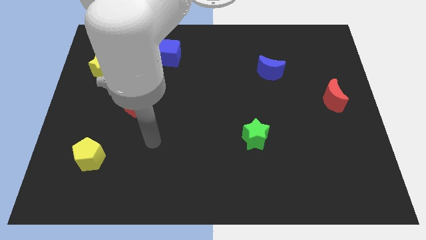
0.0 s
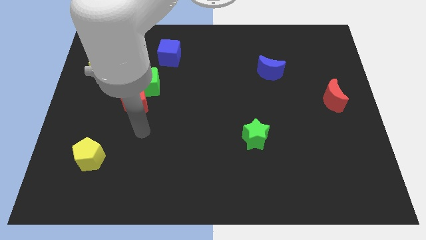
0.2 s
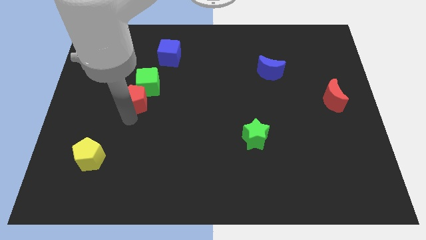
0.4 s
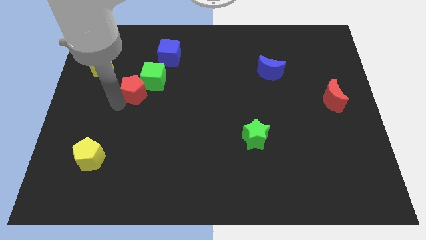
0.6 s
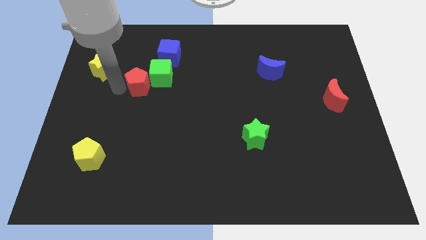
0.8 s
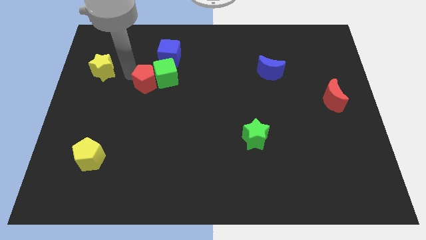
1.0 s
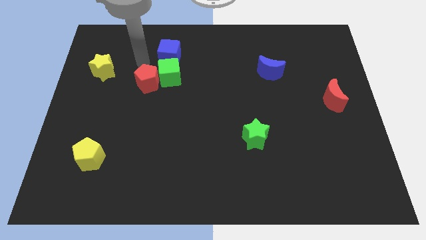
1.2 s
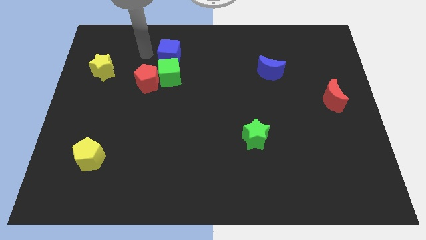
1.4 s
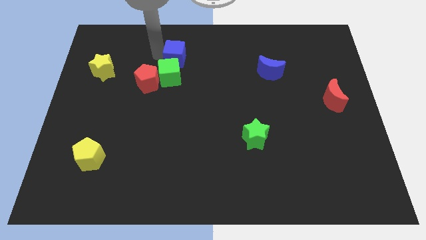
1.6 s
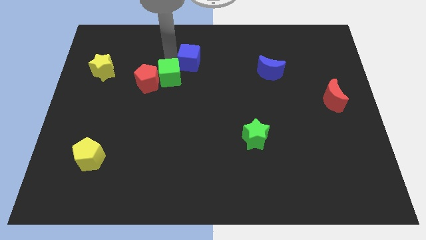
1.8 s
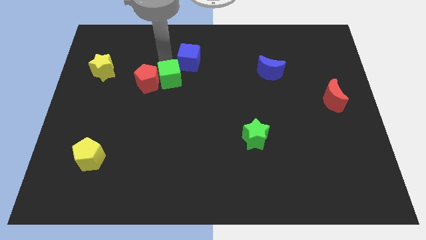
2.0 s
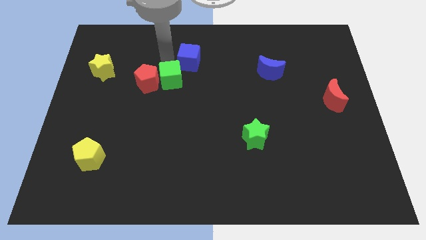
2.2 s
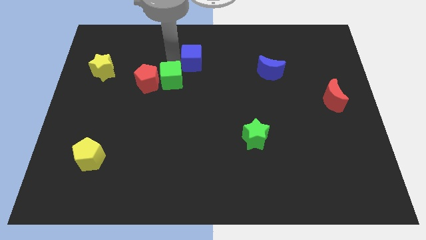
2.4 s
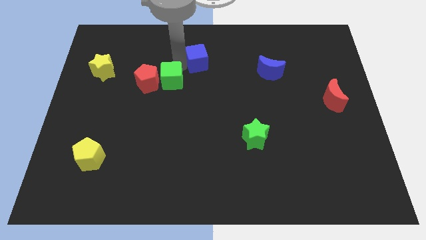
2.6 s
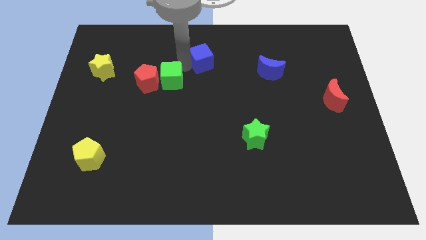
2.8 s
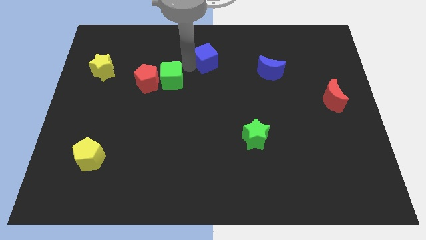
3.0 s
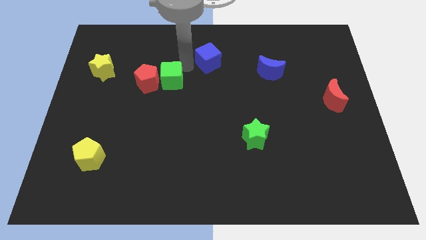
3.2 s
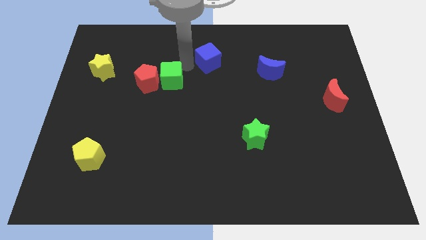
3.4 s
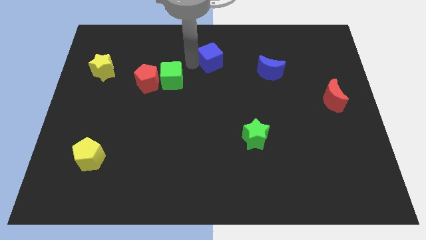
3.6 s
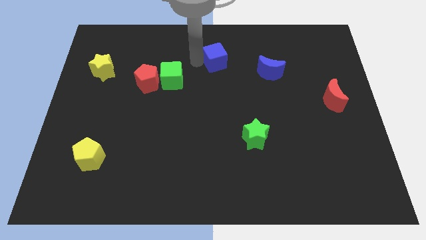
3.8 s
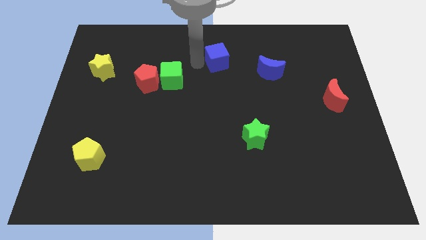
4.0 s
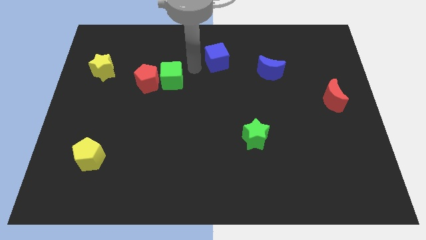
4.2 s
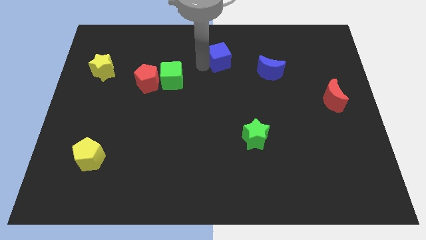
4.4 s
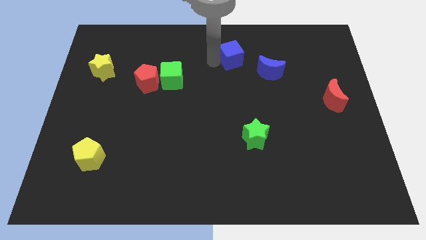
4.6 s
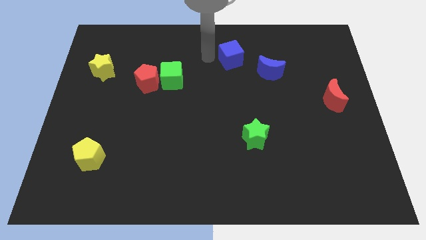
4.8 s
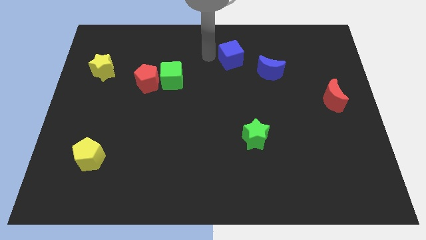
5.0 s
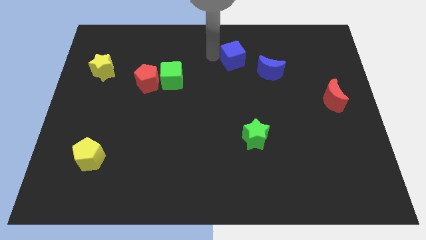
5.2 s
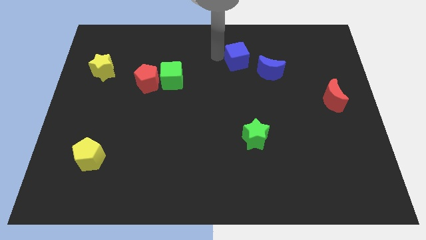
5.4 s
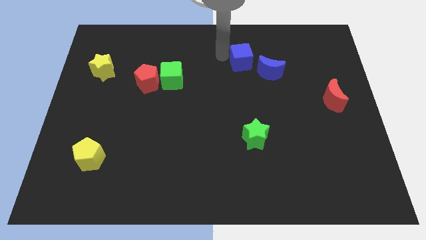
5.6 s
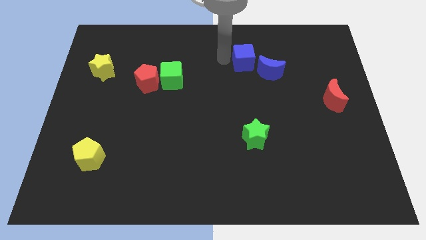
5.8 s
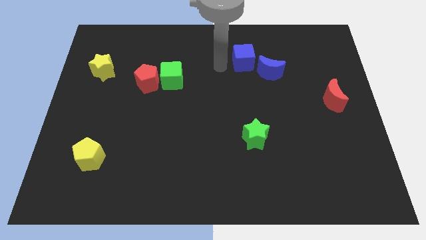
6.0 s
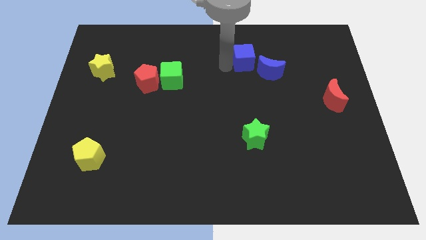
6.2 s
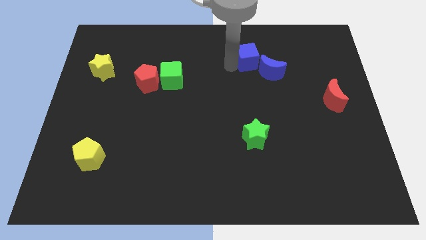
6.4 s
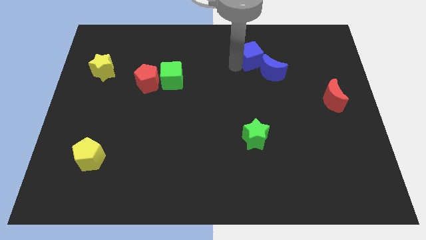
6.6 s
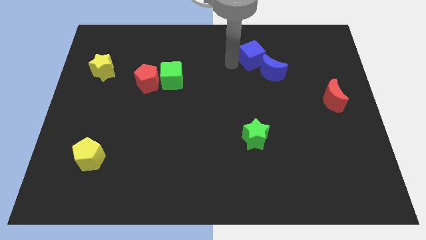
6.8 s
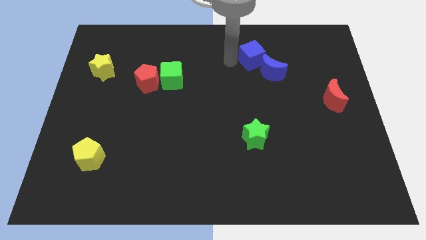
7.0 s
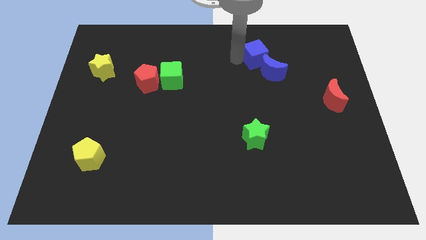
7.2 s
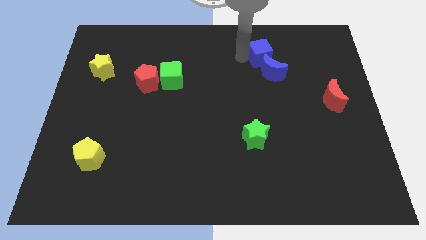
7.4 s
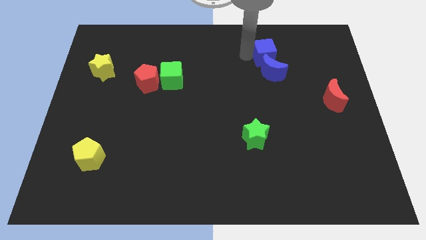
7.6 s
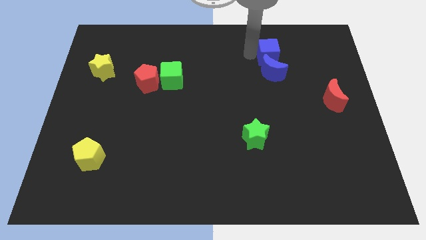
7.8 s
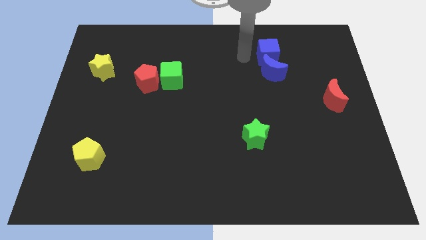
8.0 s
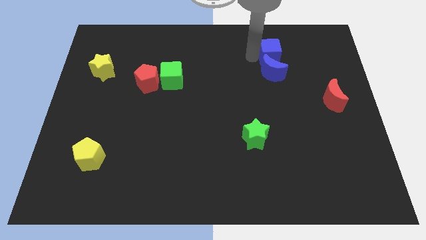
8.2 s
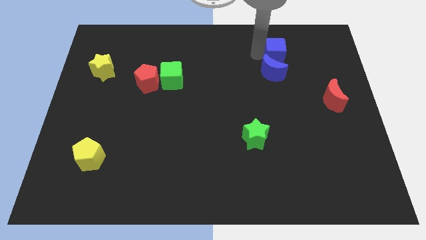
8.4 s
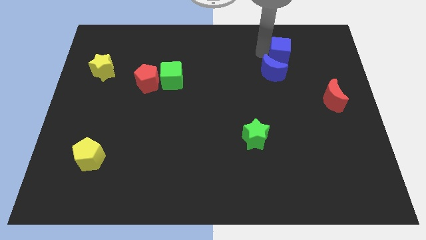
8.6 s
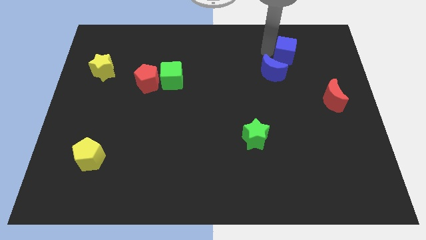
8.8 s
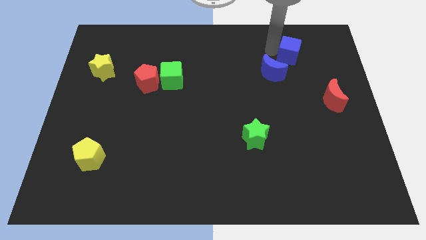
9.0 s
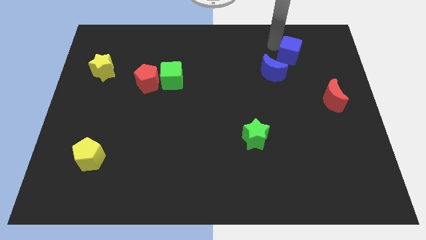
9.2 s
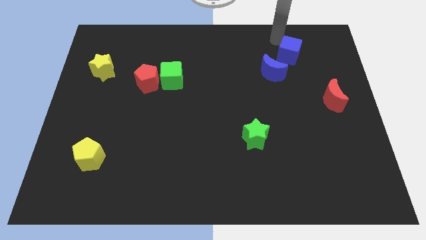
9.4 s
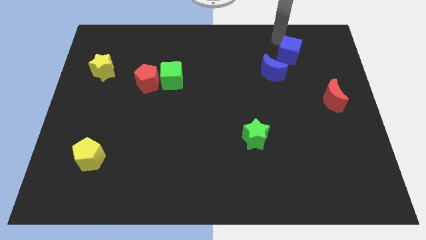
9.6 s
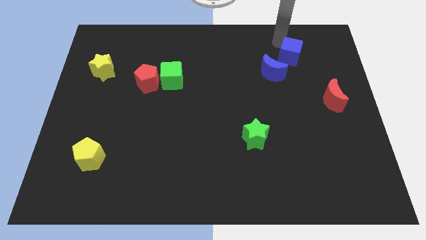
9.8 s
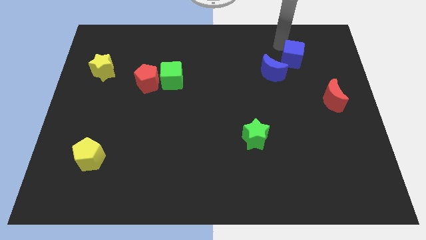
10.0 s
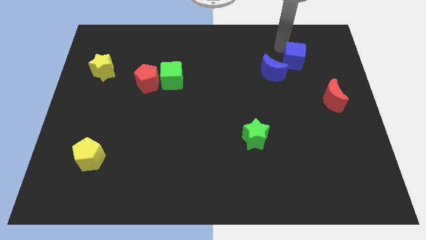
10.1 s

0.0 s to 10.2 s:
move the blue cube right of the blue moon

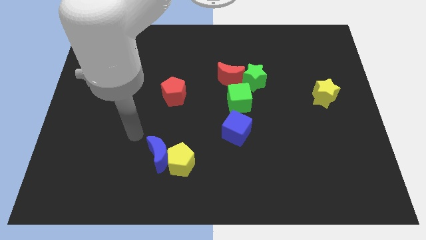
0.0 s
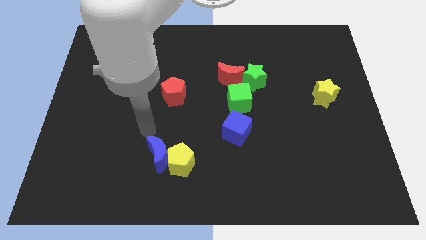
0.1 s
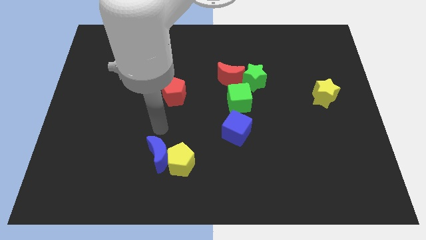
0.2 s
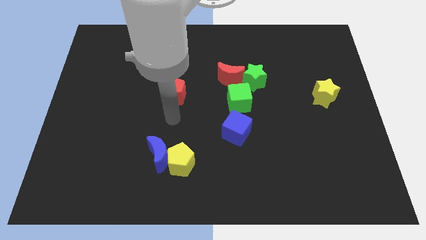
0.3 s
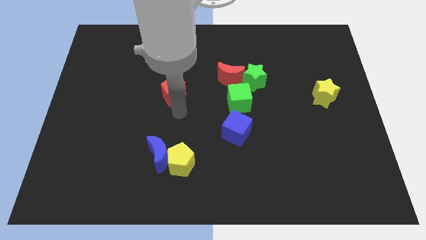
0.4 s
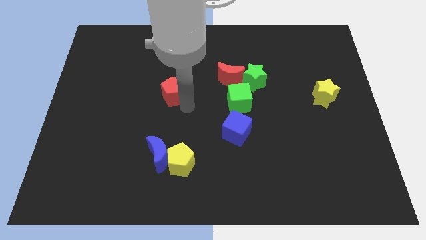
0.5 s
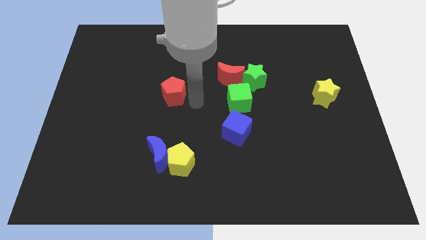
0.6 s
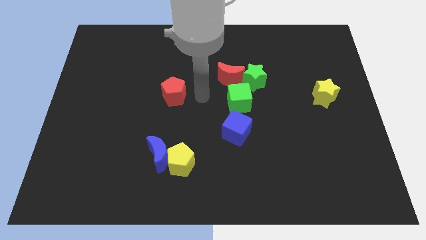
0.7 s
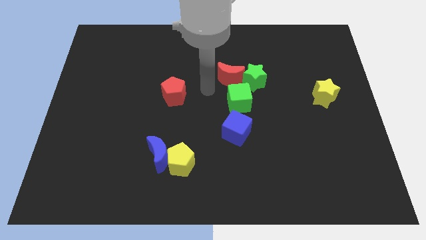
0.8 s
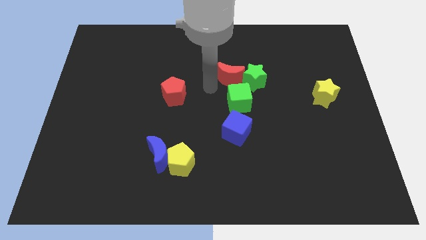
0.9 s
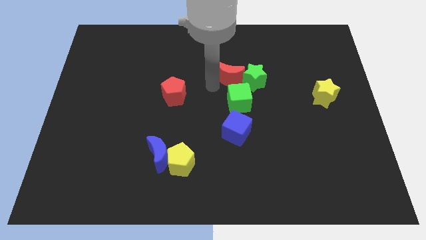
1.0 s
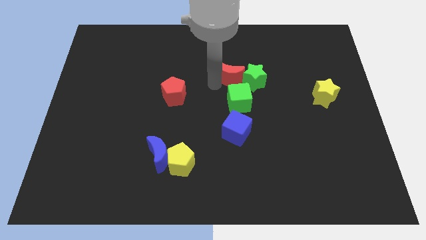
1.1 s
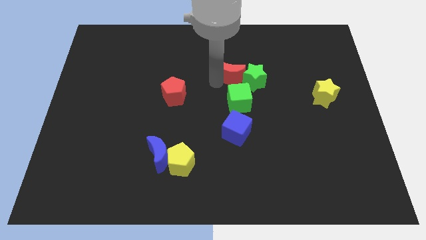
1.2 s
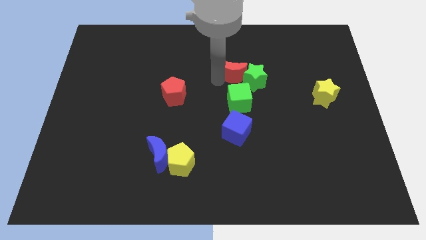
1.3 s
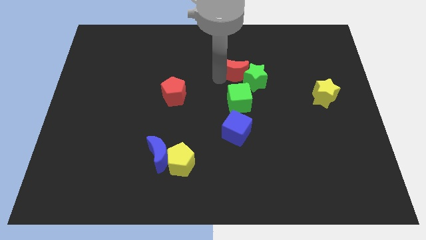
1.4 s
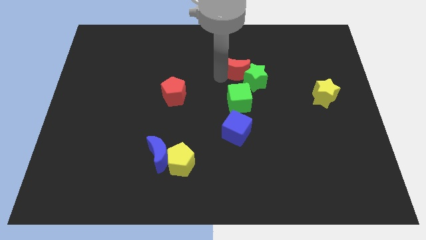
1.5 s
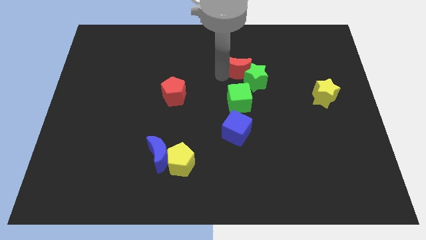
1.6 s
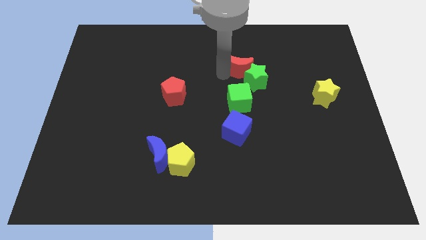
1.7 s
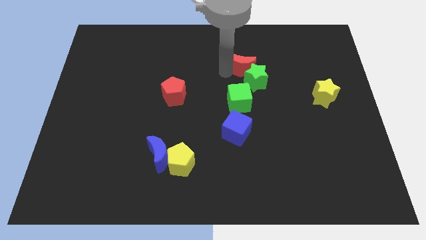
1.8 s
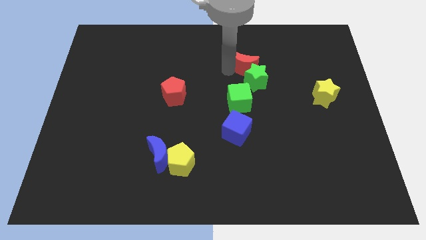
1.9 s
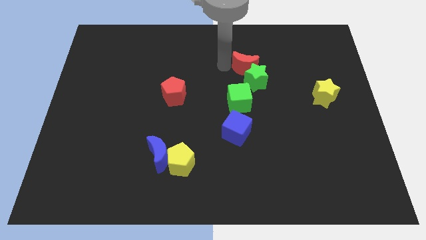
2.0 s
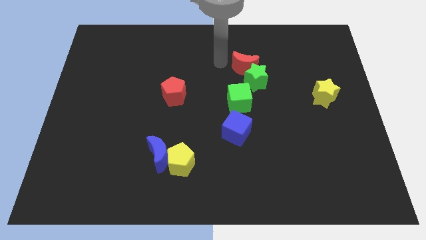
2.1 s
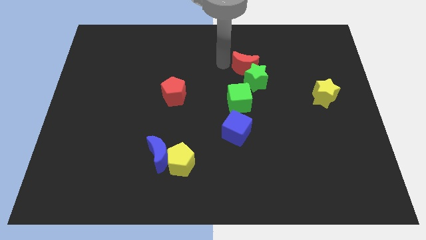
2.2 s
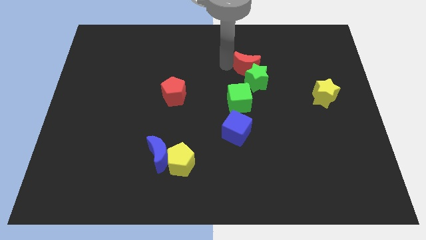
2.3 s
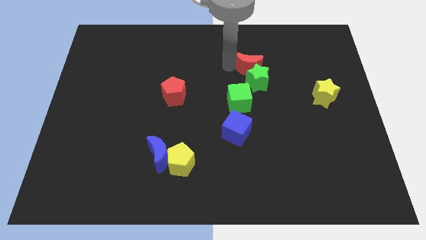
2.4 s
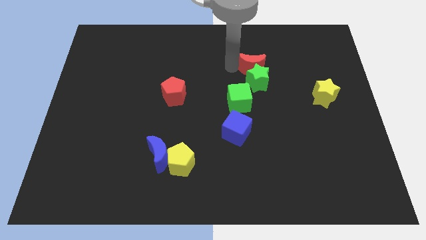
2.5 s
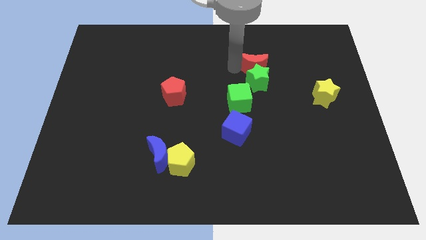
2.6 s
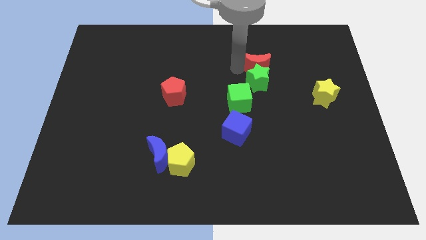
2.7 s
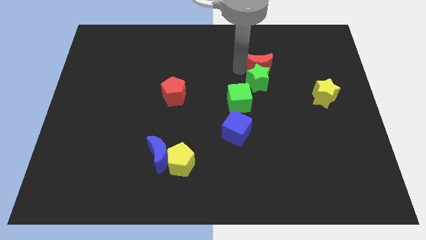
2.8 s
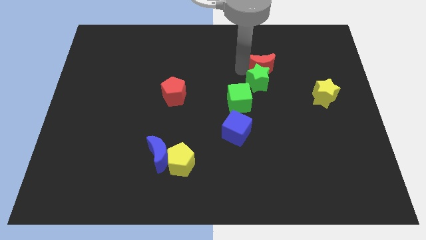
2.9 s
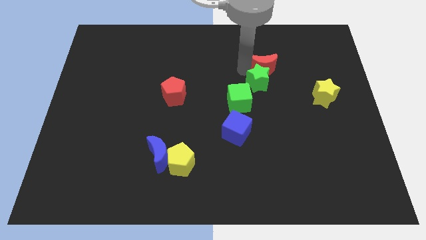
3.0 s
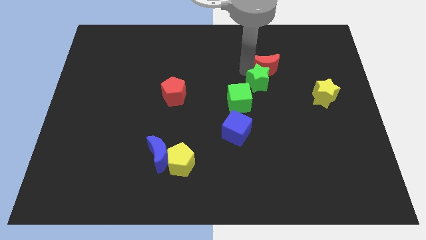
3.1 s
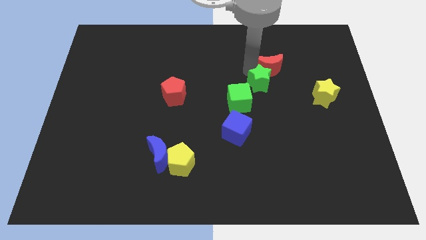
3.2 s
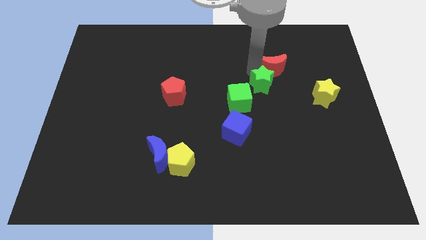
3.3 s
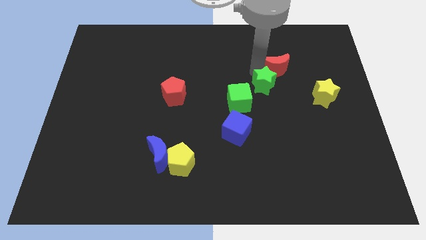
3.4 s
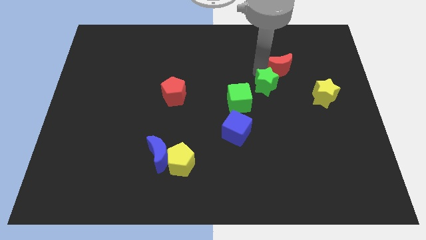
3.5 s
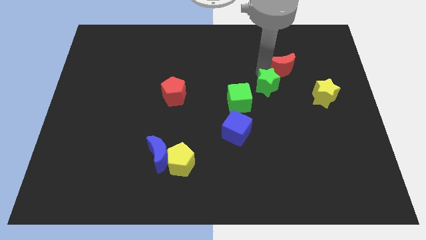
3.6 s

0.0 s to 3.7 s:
put the red moon to the top left of the yellow star
